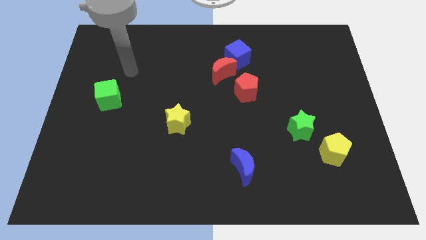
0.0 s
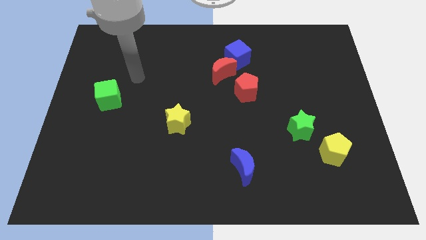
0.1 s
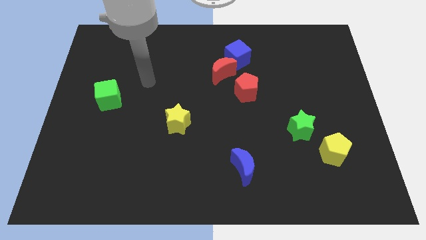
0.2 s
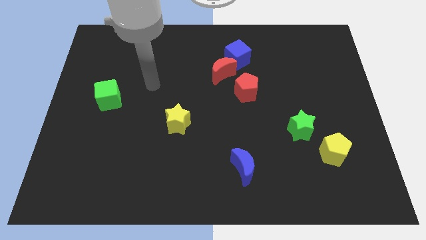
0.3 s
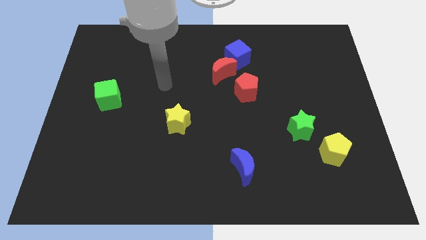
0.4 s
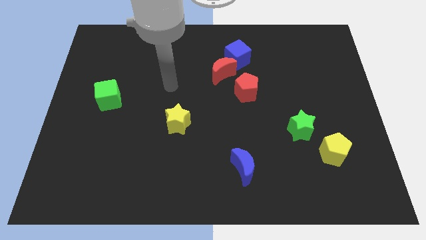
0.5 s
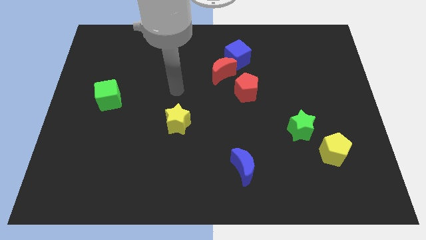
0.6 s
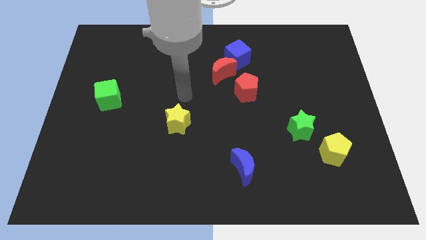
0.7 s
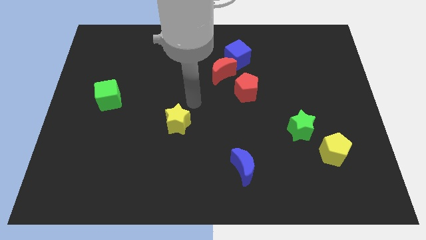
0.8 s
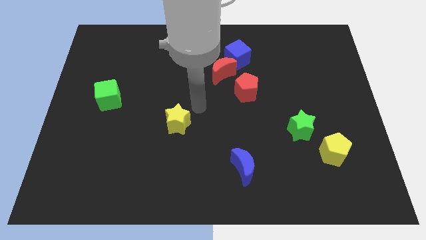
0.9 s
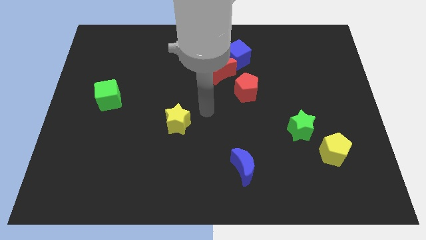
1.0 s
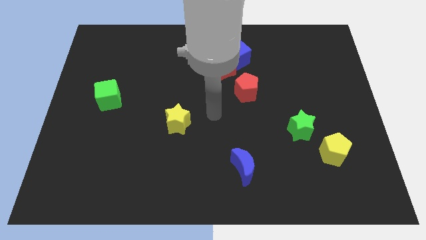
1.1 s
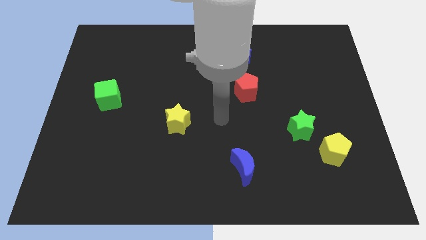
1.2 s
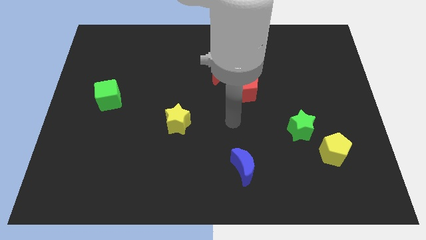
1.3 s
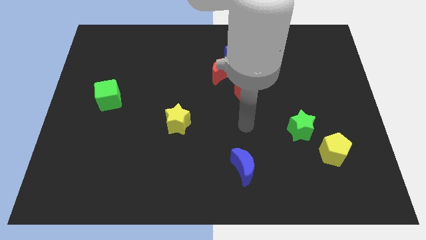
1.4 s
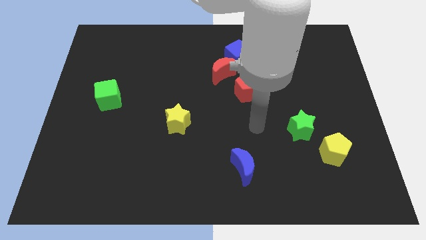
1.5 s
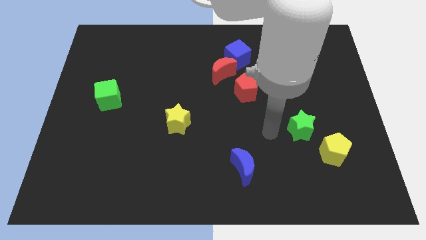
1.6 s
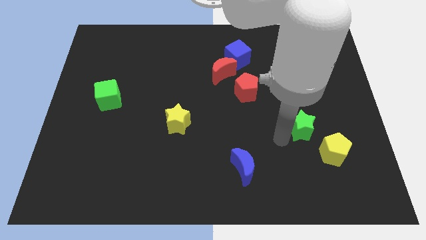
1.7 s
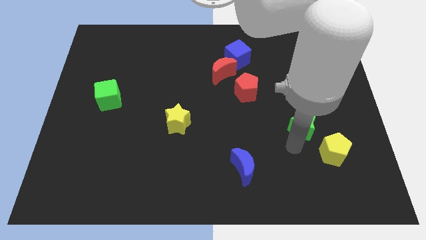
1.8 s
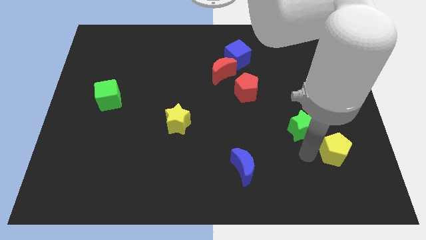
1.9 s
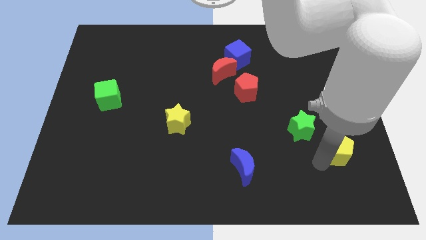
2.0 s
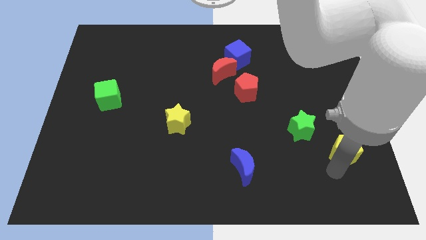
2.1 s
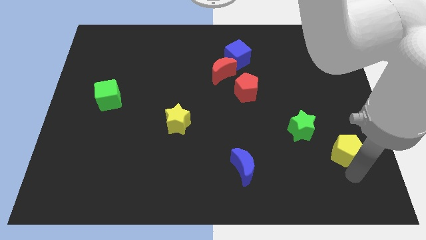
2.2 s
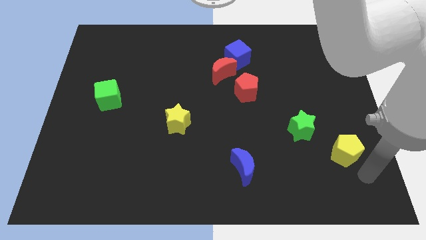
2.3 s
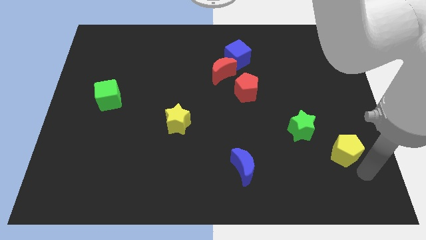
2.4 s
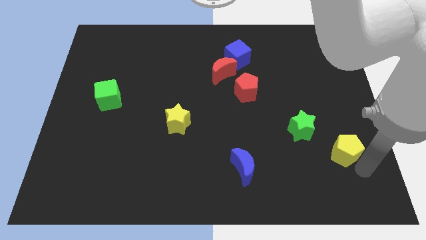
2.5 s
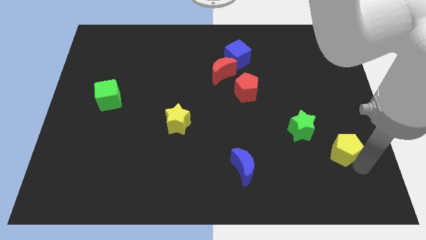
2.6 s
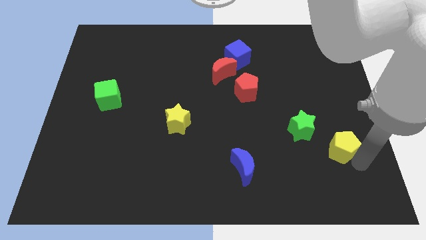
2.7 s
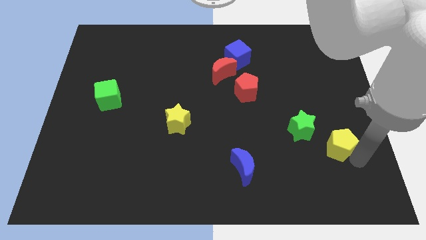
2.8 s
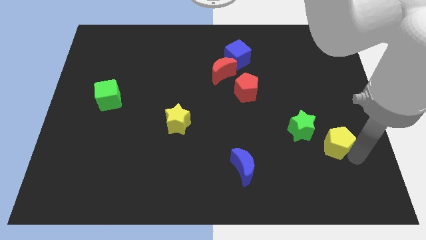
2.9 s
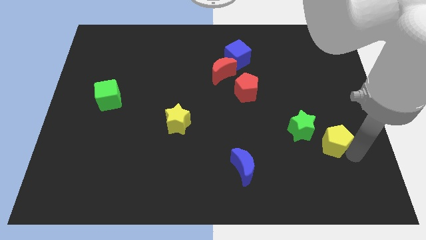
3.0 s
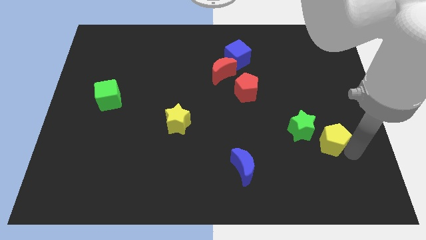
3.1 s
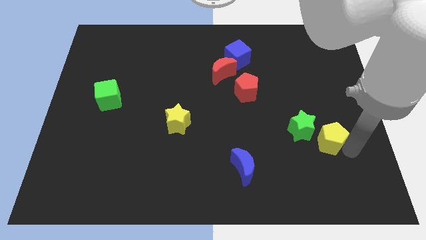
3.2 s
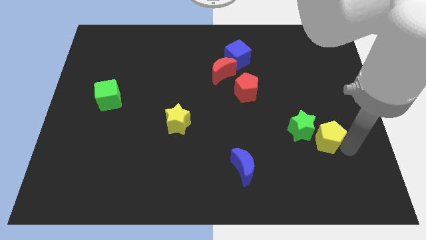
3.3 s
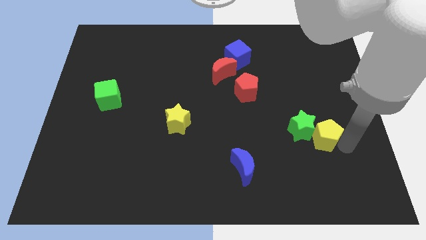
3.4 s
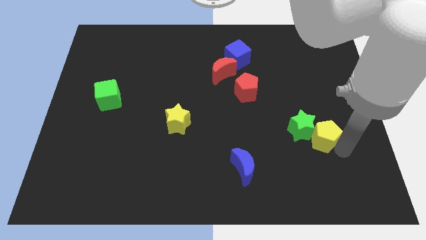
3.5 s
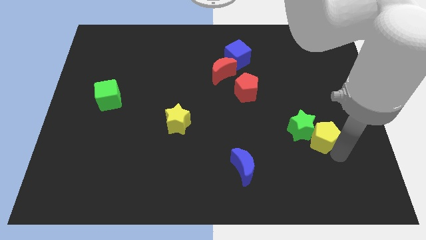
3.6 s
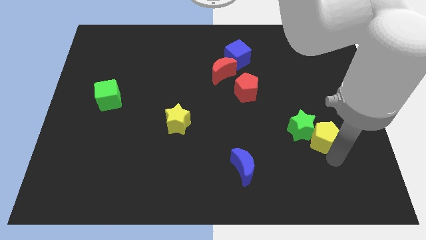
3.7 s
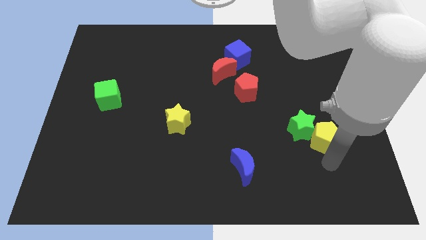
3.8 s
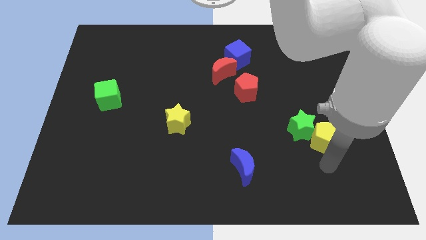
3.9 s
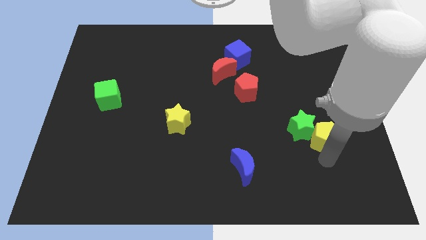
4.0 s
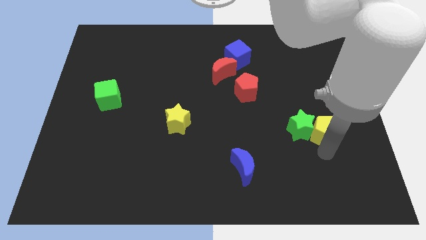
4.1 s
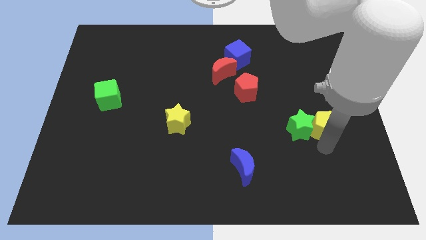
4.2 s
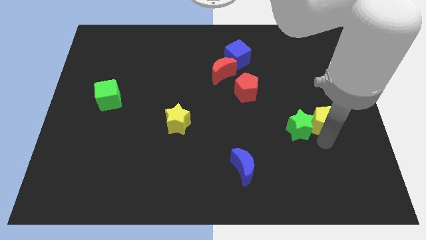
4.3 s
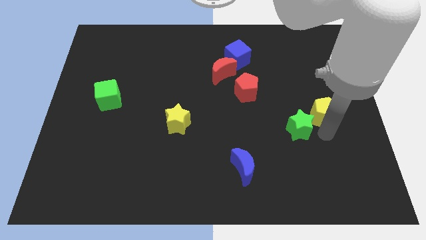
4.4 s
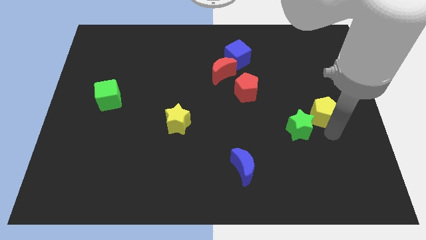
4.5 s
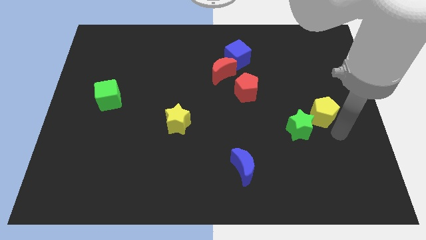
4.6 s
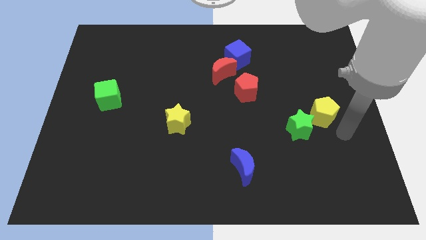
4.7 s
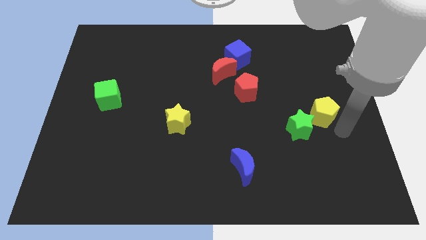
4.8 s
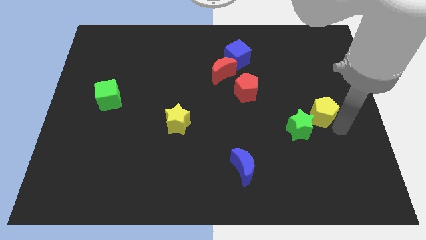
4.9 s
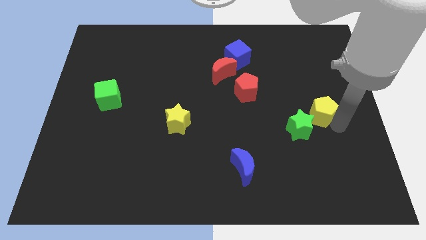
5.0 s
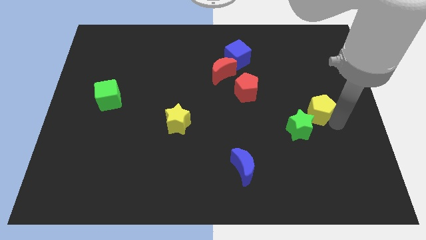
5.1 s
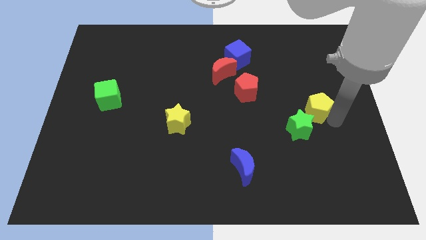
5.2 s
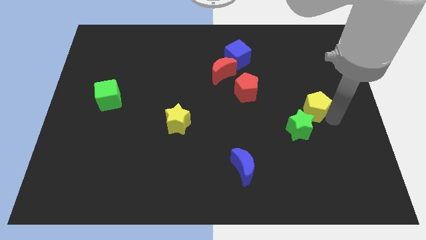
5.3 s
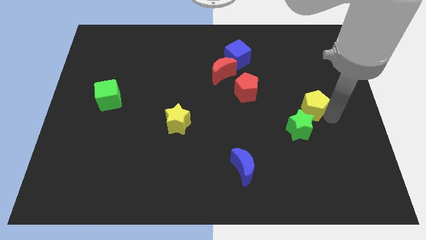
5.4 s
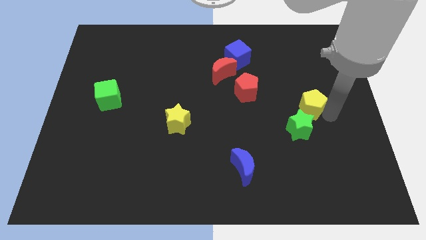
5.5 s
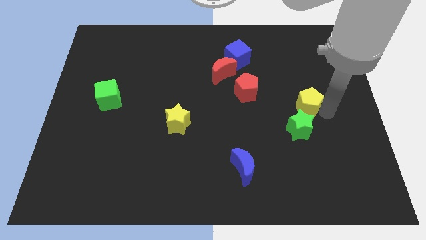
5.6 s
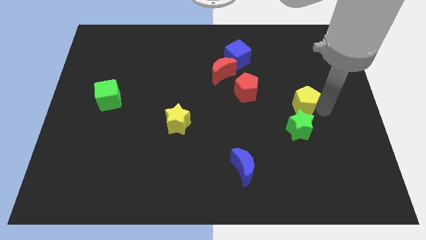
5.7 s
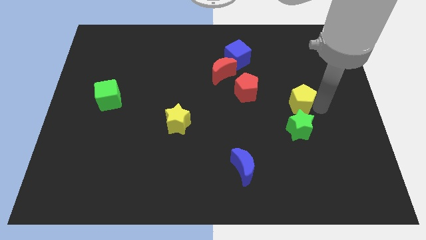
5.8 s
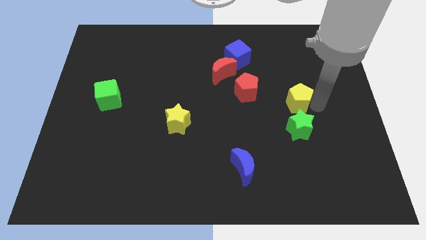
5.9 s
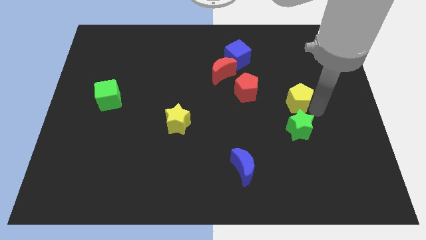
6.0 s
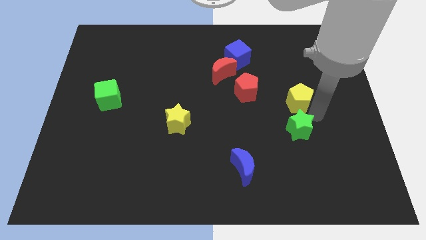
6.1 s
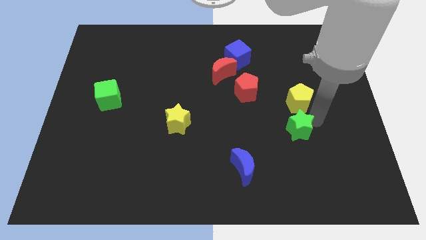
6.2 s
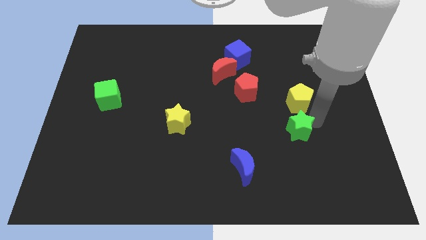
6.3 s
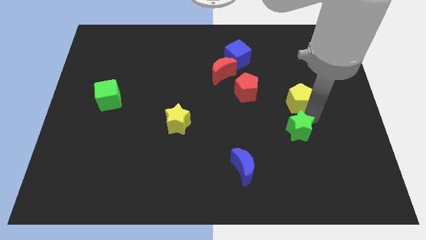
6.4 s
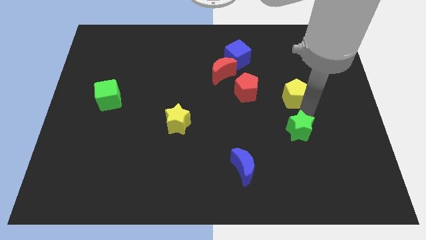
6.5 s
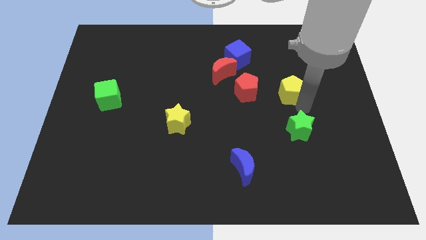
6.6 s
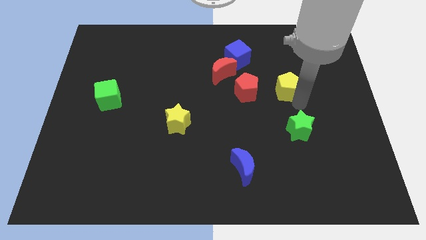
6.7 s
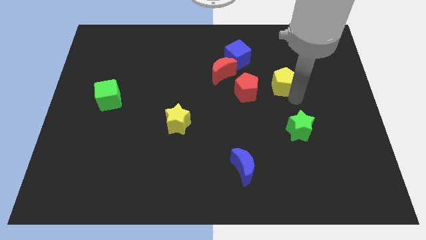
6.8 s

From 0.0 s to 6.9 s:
slide the yellow pentagon to the top right side of the red pentagon
